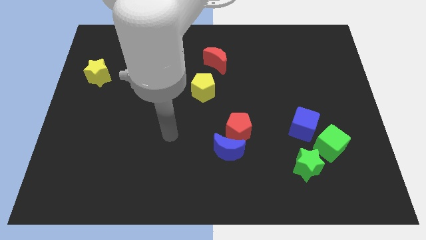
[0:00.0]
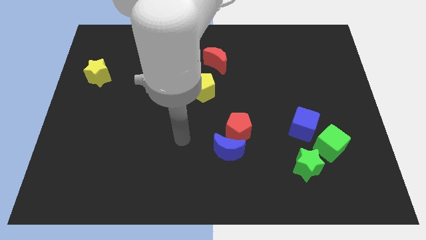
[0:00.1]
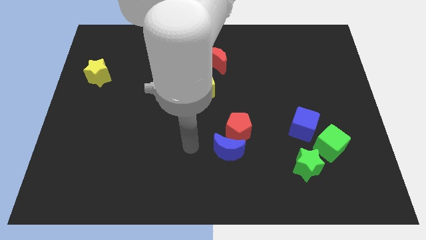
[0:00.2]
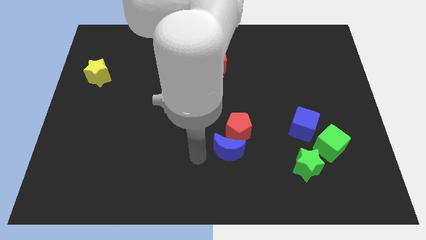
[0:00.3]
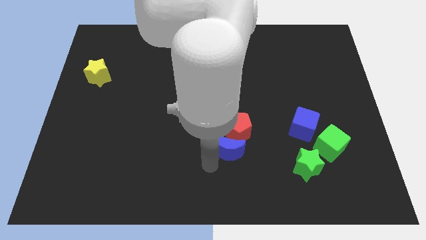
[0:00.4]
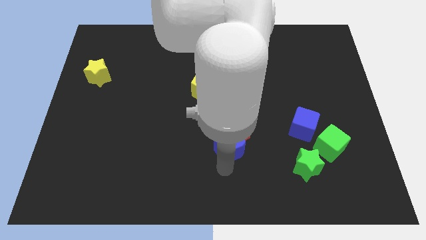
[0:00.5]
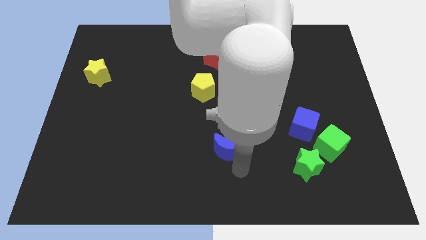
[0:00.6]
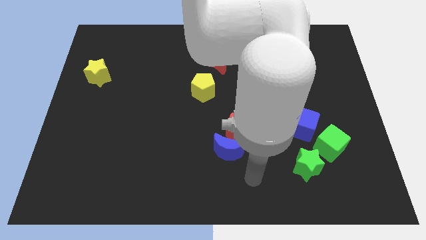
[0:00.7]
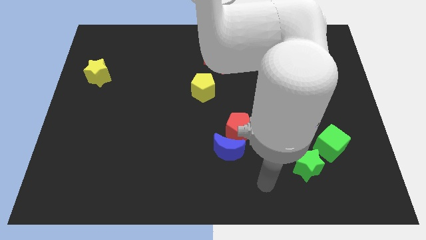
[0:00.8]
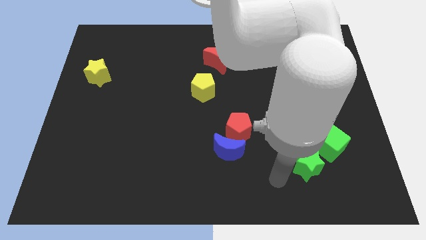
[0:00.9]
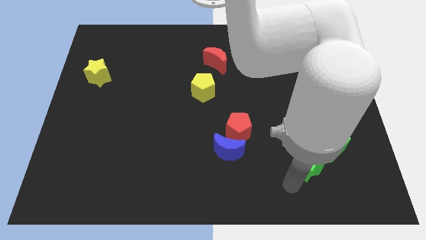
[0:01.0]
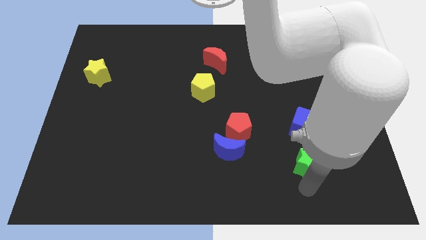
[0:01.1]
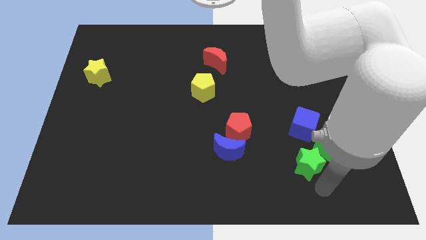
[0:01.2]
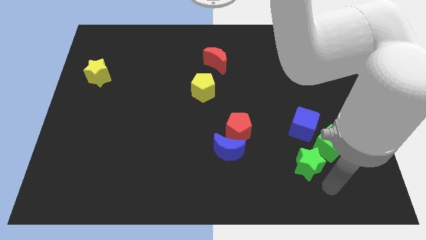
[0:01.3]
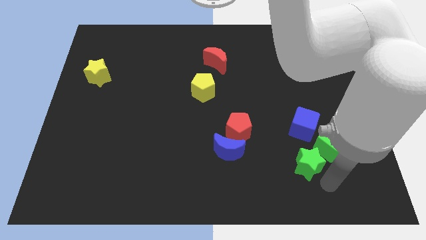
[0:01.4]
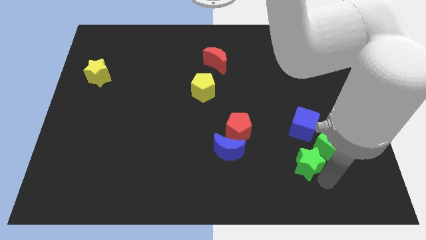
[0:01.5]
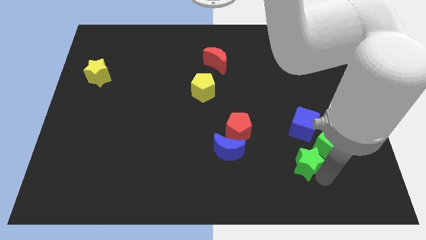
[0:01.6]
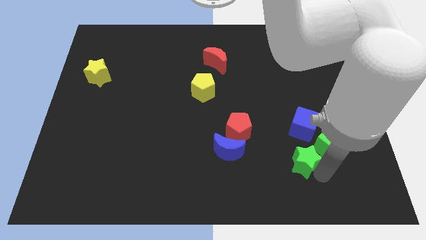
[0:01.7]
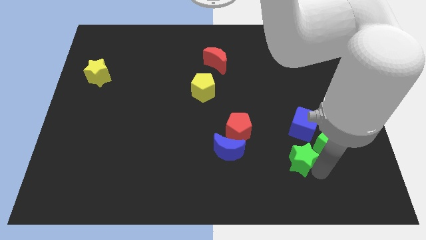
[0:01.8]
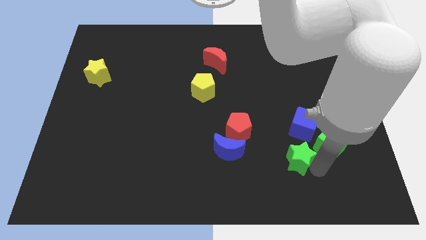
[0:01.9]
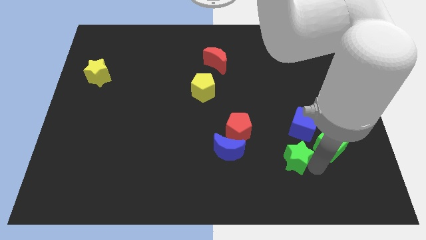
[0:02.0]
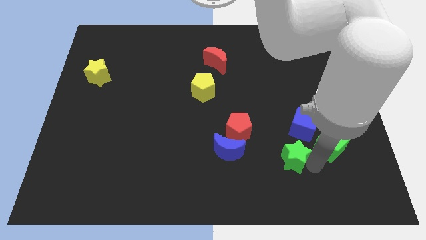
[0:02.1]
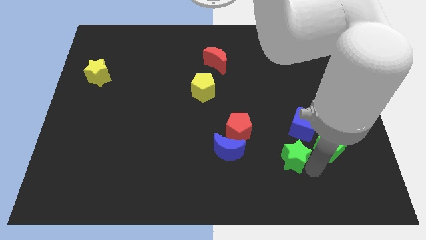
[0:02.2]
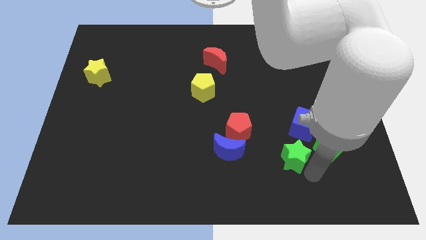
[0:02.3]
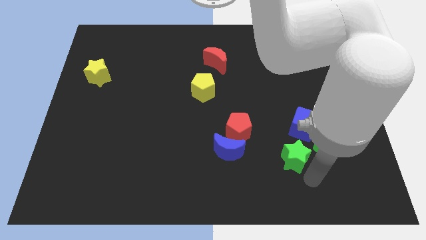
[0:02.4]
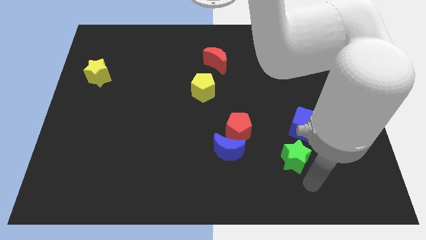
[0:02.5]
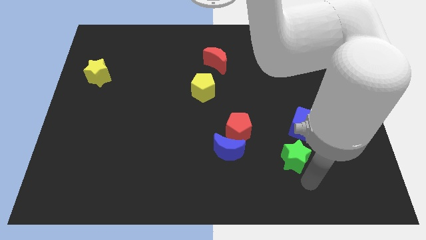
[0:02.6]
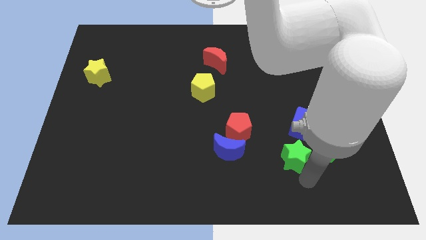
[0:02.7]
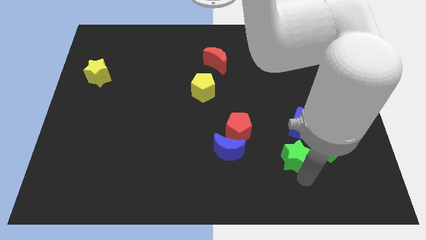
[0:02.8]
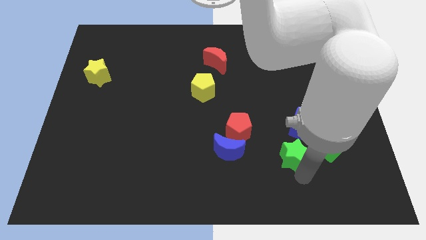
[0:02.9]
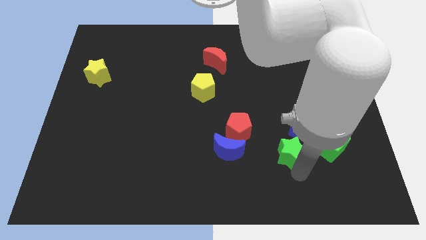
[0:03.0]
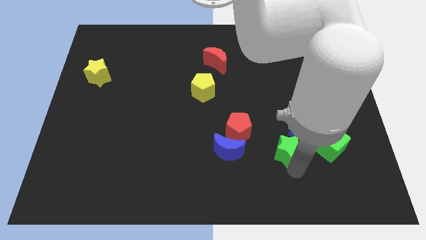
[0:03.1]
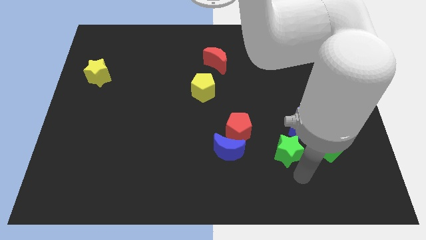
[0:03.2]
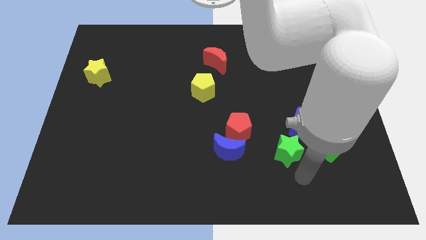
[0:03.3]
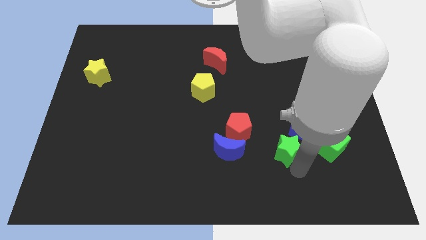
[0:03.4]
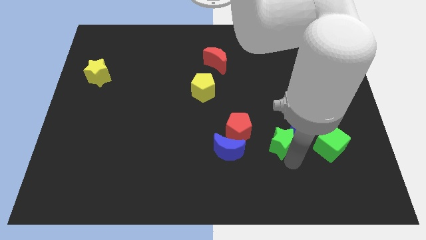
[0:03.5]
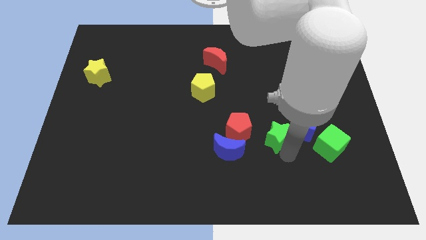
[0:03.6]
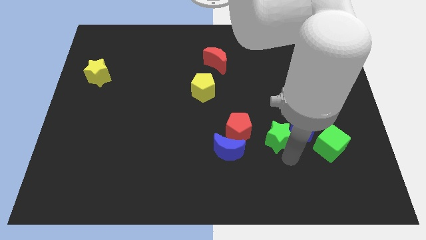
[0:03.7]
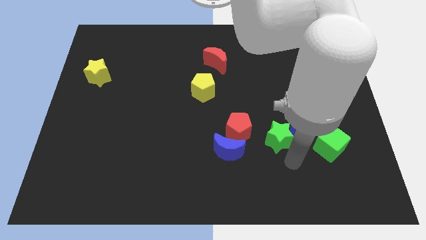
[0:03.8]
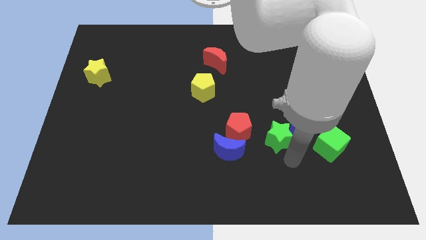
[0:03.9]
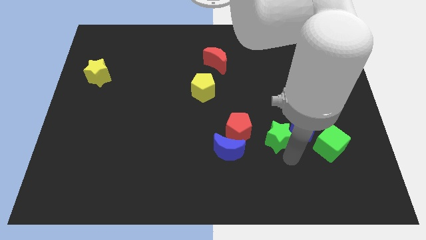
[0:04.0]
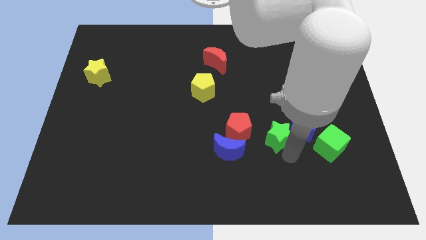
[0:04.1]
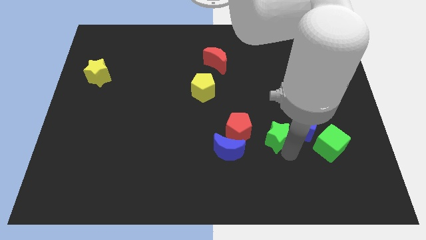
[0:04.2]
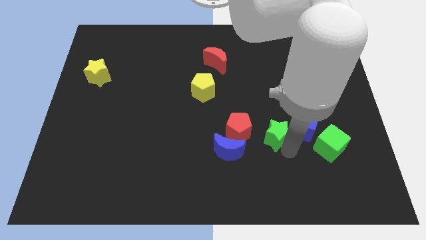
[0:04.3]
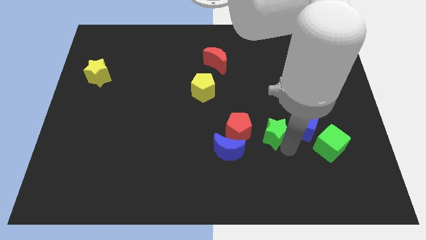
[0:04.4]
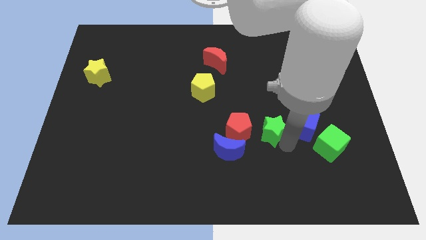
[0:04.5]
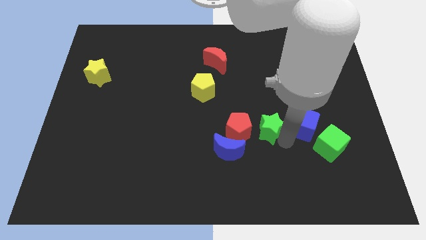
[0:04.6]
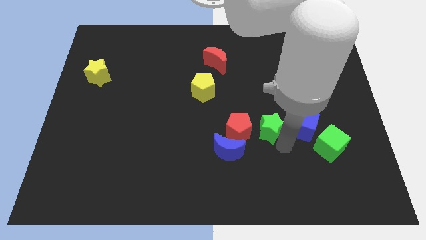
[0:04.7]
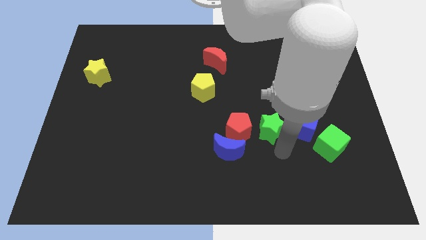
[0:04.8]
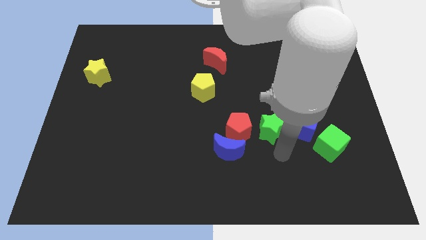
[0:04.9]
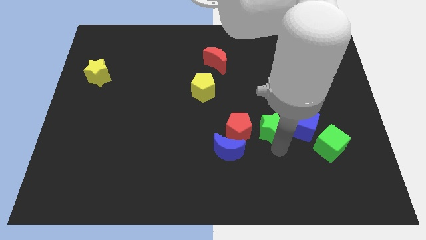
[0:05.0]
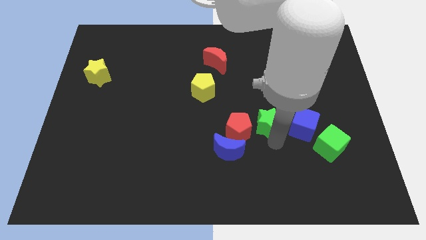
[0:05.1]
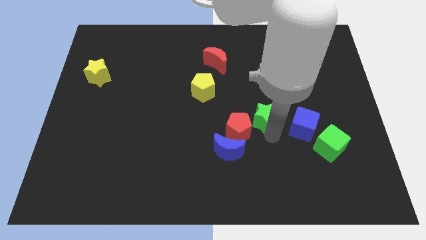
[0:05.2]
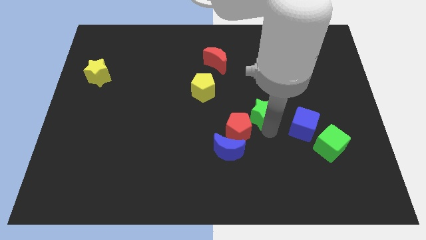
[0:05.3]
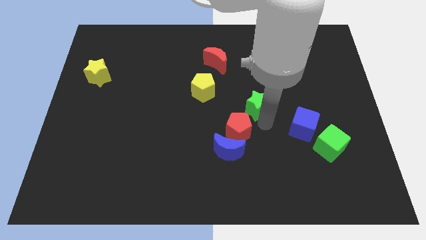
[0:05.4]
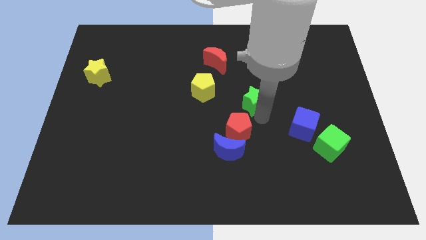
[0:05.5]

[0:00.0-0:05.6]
move the green star just right of the yellow pentagon

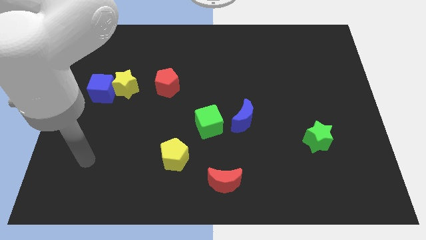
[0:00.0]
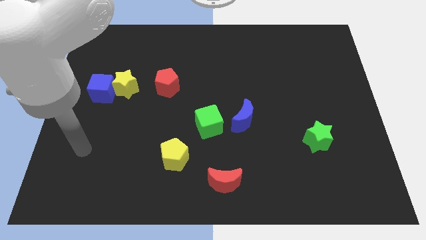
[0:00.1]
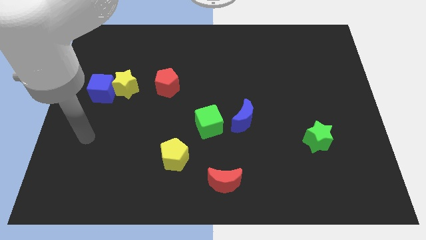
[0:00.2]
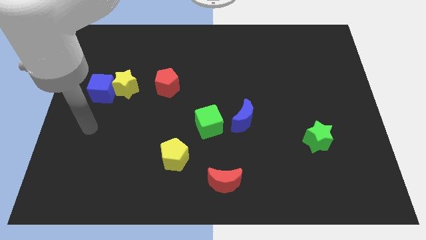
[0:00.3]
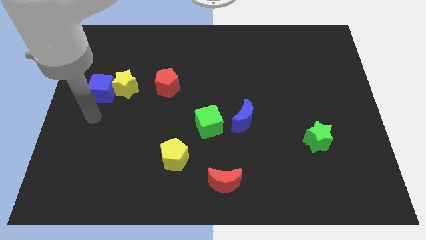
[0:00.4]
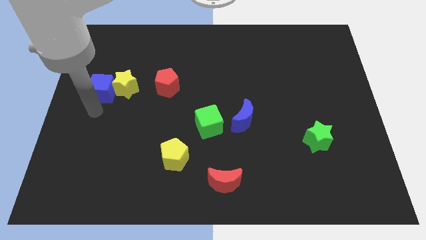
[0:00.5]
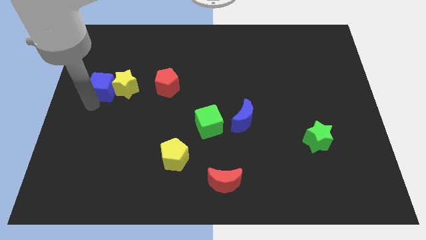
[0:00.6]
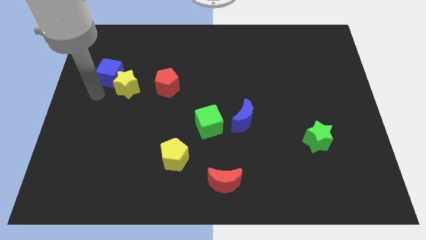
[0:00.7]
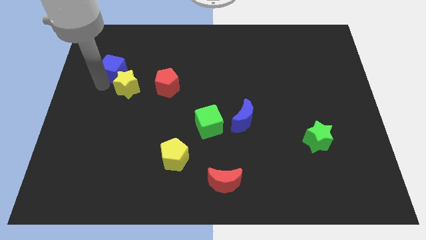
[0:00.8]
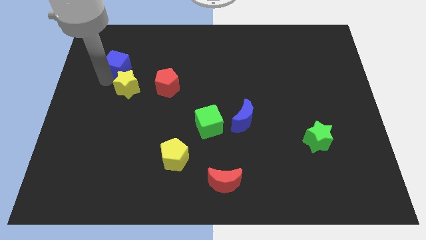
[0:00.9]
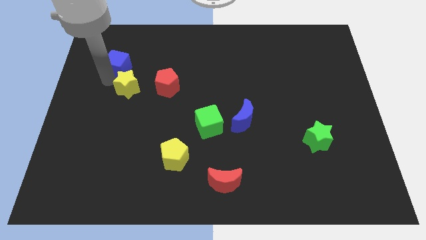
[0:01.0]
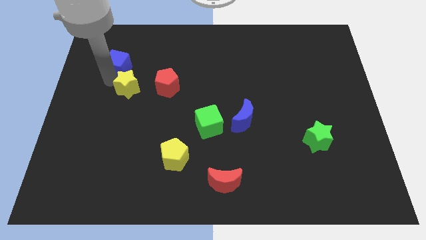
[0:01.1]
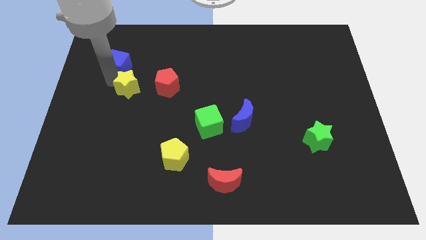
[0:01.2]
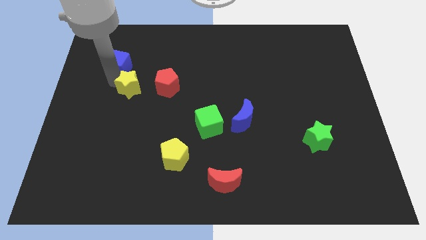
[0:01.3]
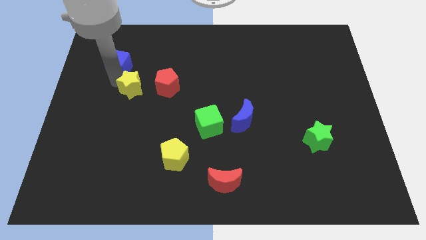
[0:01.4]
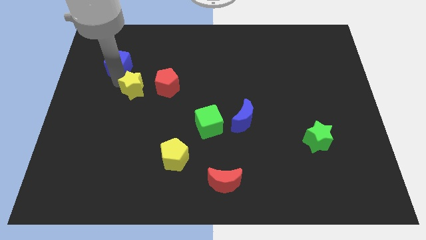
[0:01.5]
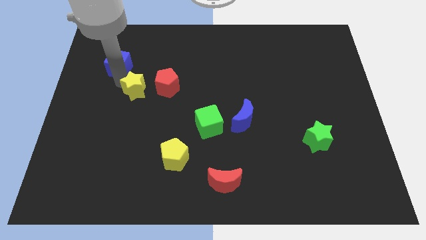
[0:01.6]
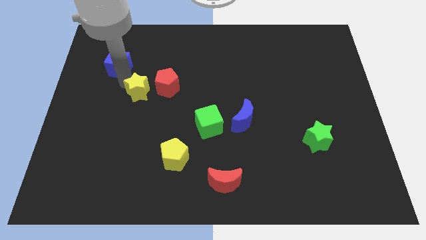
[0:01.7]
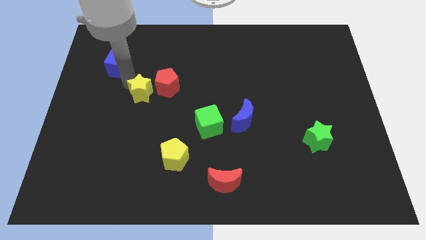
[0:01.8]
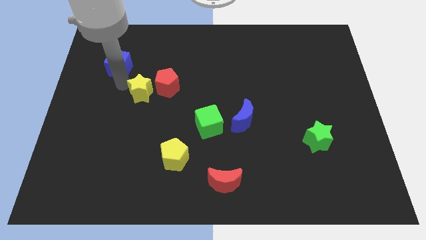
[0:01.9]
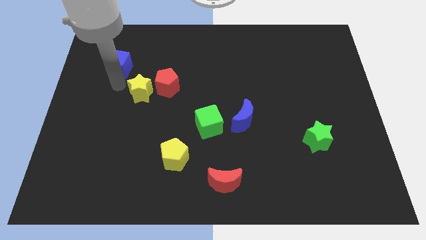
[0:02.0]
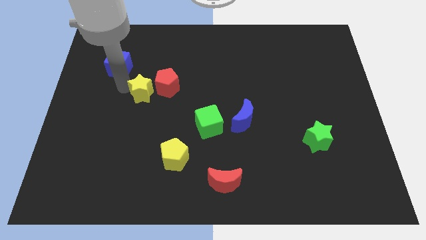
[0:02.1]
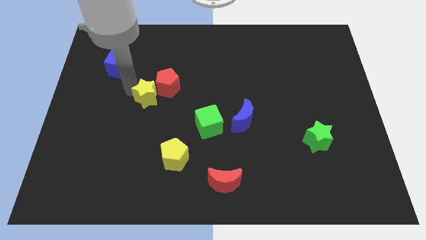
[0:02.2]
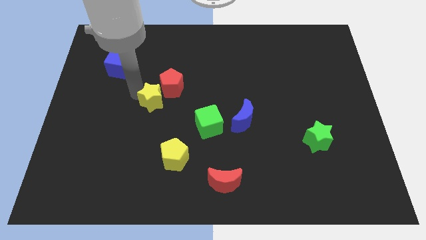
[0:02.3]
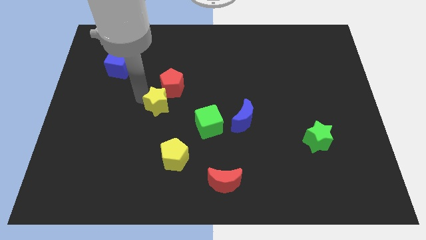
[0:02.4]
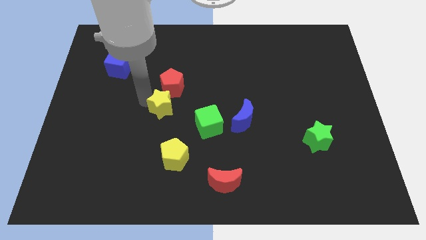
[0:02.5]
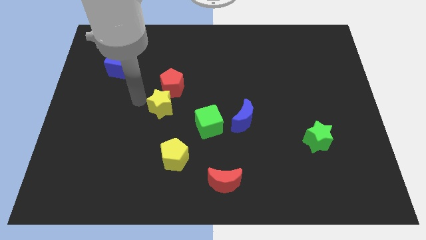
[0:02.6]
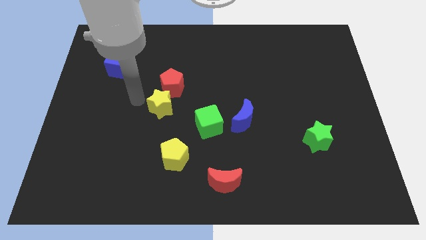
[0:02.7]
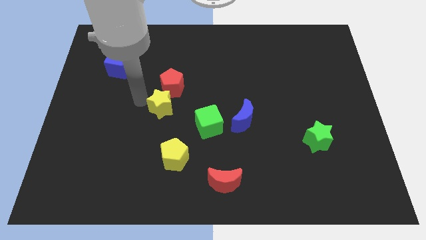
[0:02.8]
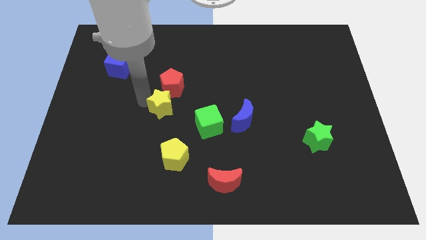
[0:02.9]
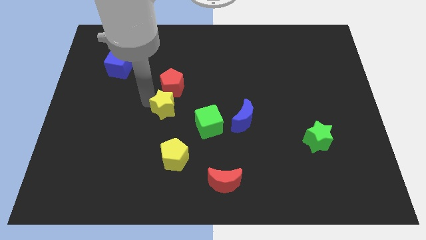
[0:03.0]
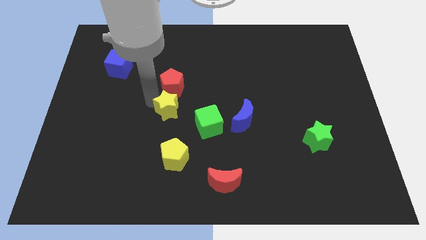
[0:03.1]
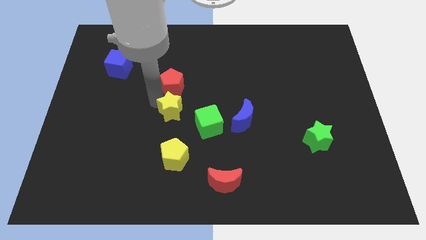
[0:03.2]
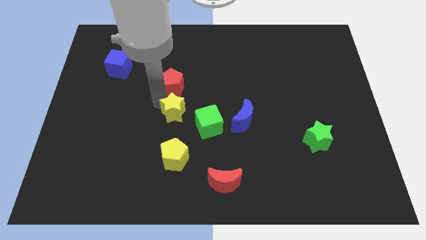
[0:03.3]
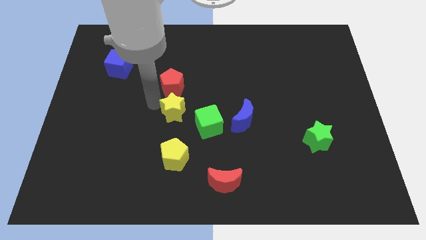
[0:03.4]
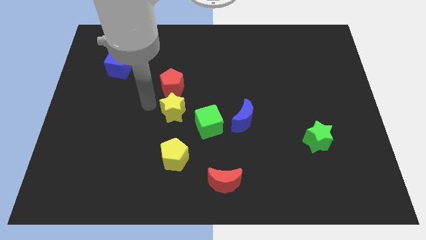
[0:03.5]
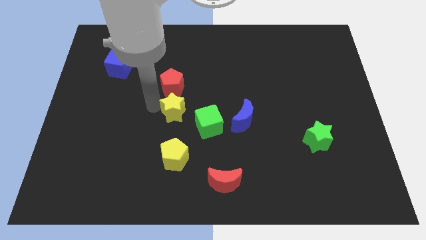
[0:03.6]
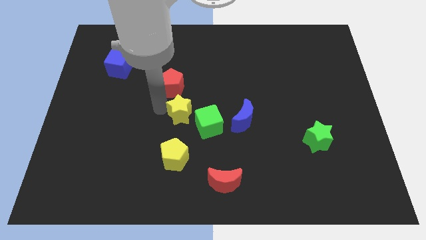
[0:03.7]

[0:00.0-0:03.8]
put the yellow star to the left side of the blue moon
